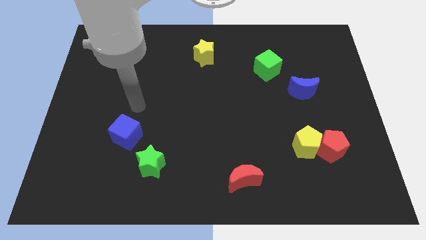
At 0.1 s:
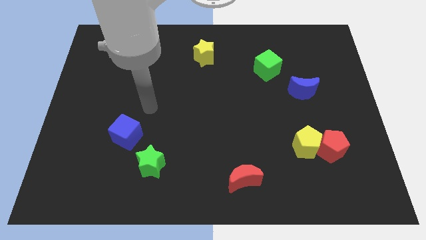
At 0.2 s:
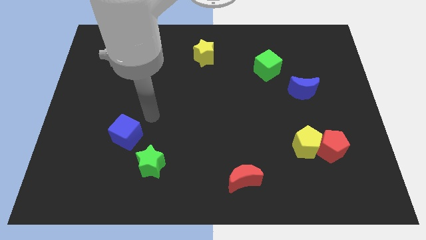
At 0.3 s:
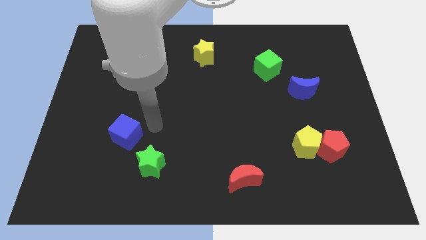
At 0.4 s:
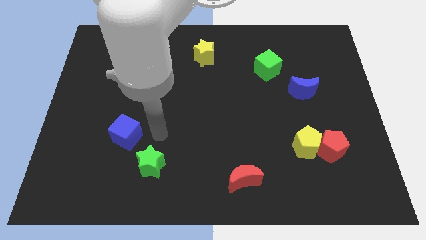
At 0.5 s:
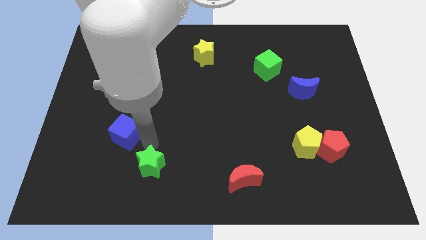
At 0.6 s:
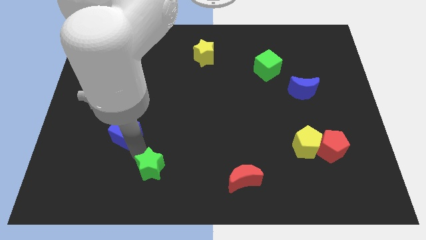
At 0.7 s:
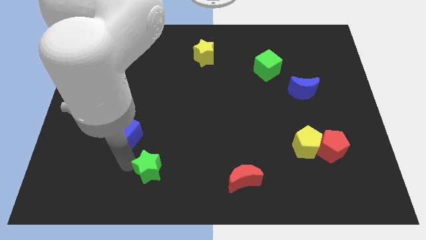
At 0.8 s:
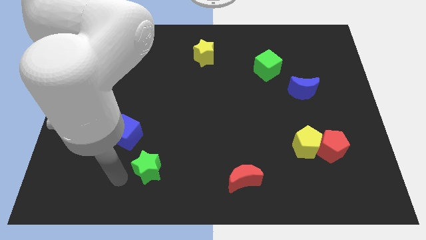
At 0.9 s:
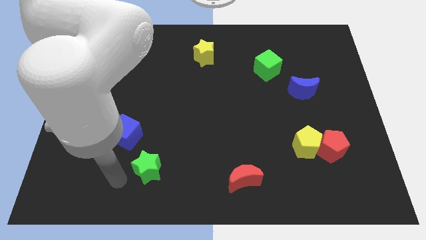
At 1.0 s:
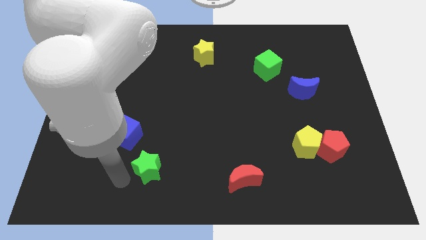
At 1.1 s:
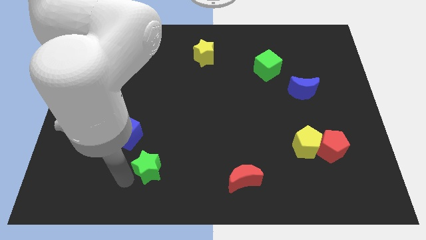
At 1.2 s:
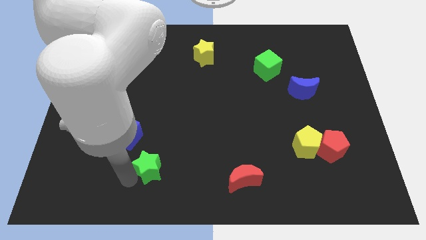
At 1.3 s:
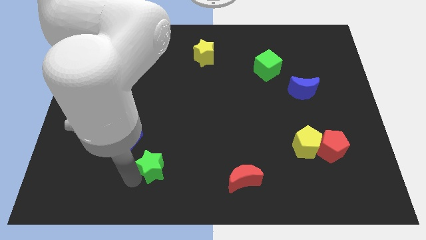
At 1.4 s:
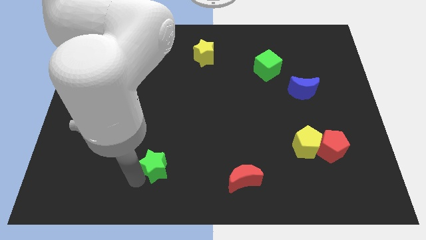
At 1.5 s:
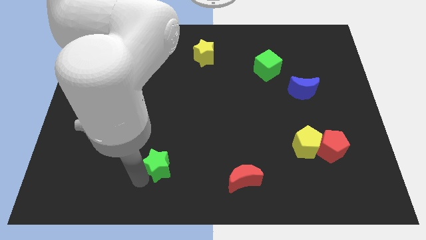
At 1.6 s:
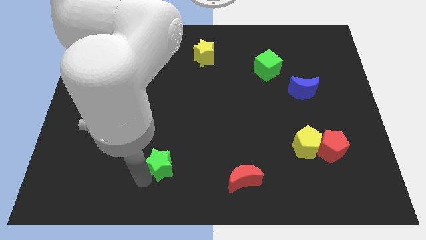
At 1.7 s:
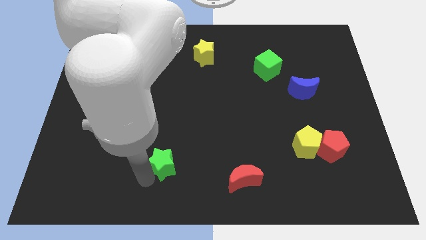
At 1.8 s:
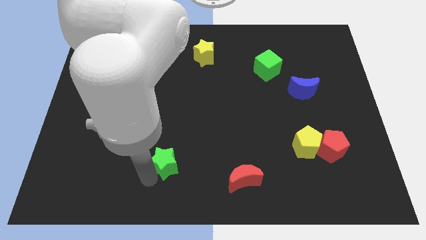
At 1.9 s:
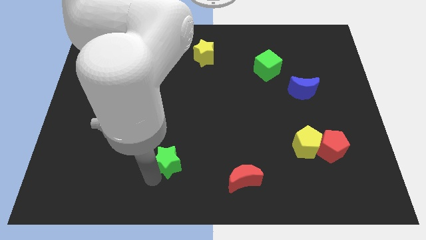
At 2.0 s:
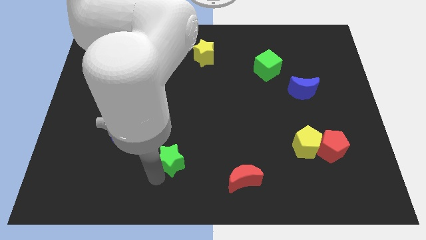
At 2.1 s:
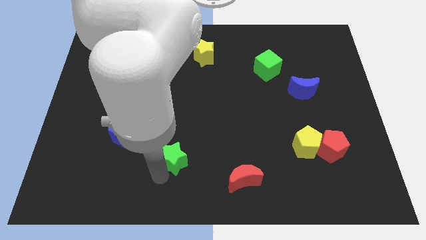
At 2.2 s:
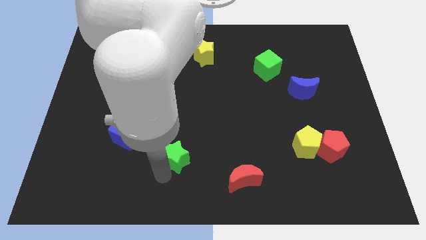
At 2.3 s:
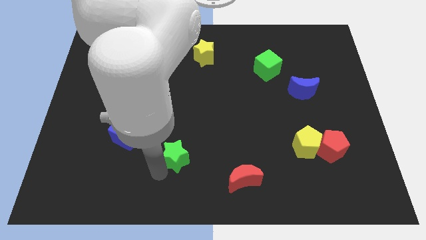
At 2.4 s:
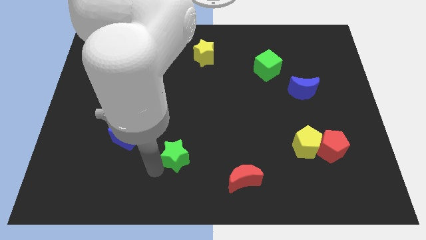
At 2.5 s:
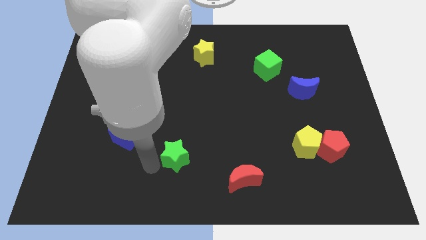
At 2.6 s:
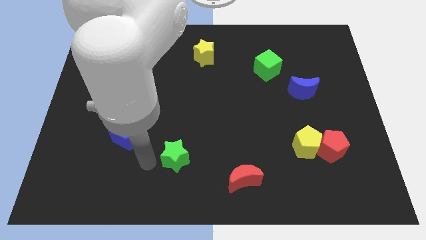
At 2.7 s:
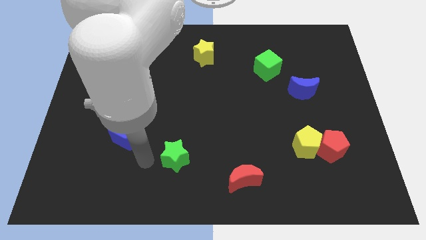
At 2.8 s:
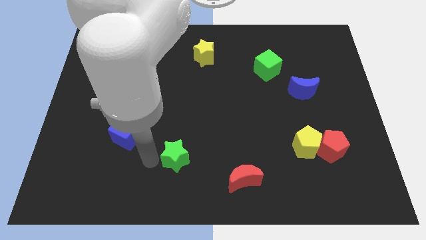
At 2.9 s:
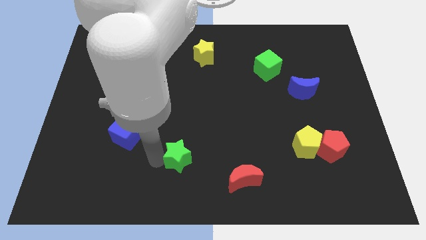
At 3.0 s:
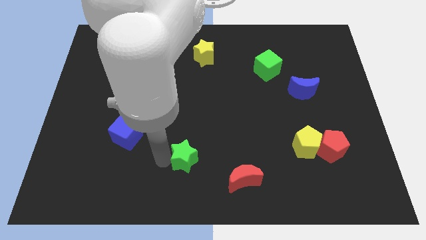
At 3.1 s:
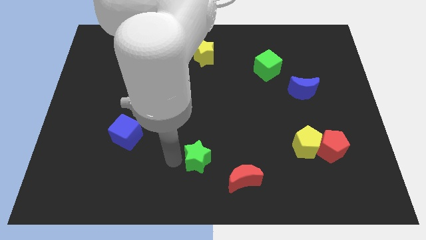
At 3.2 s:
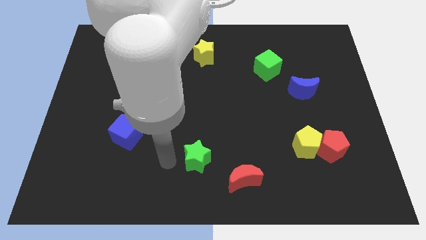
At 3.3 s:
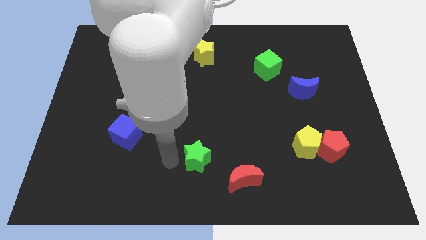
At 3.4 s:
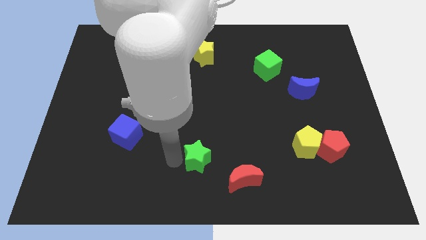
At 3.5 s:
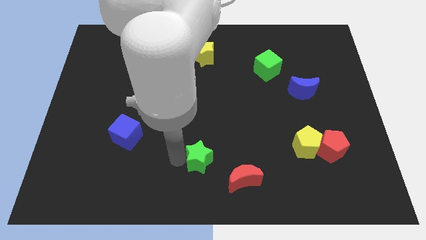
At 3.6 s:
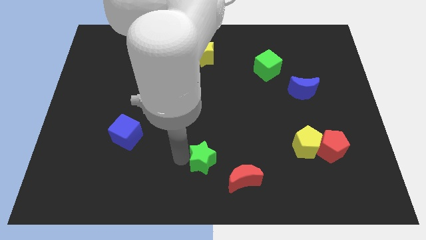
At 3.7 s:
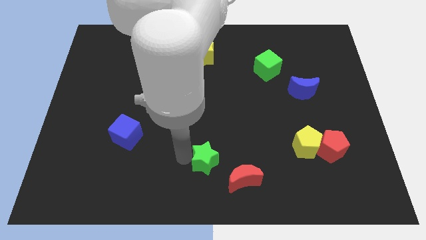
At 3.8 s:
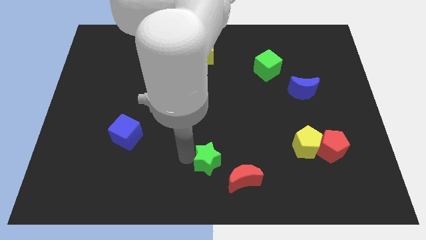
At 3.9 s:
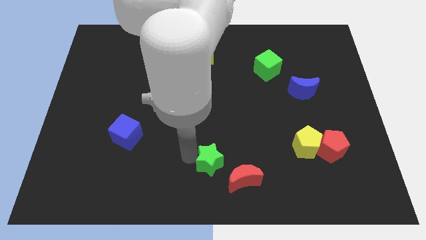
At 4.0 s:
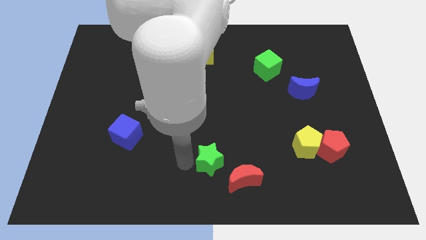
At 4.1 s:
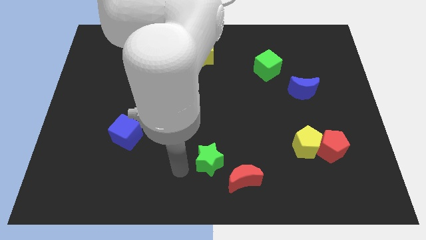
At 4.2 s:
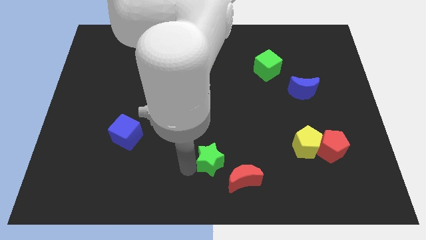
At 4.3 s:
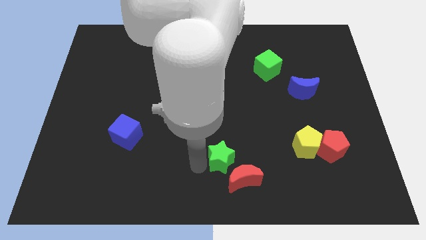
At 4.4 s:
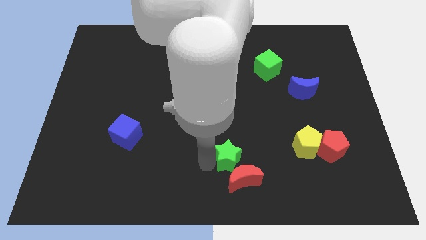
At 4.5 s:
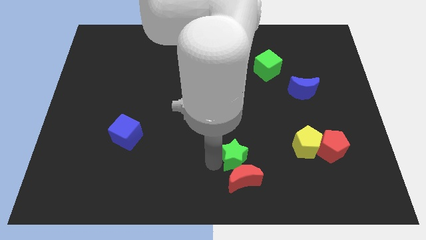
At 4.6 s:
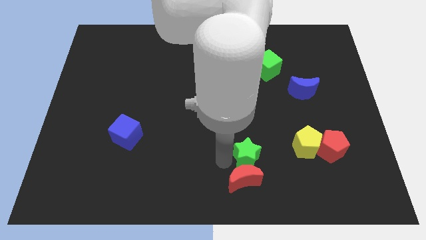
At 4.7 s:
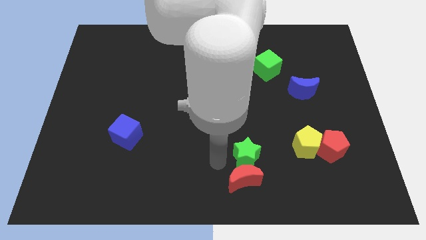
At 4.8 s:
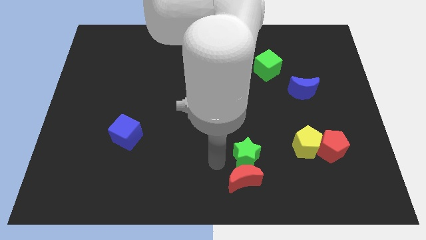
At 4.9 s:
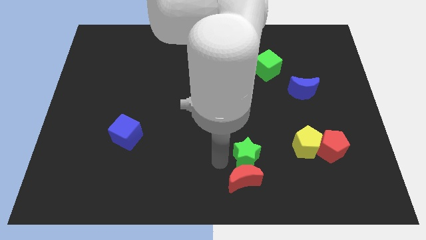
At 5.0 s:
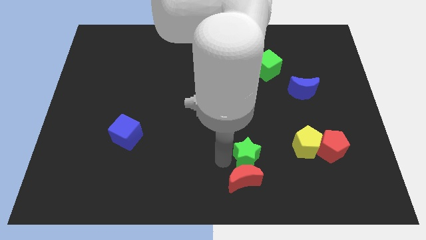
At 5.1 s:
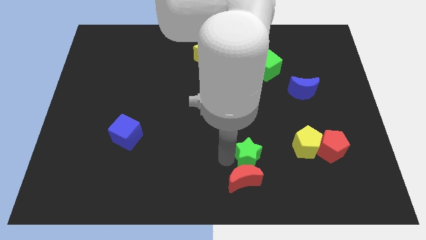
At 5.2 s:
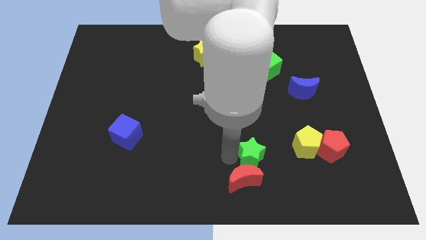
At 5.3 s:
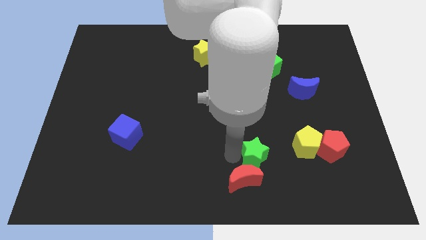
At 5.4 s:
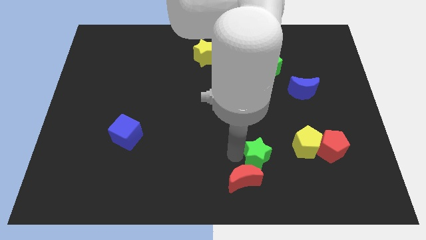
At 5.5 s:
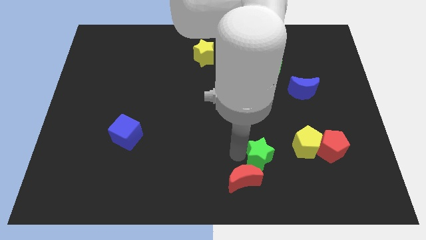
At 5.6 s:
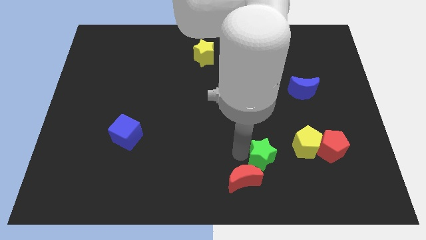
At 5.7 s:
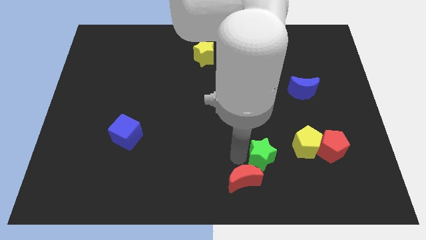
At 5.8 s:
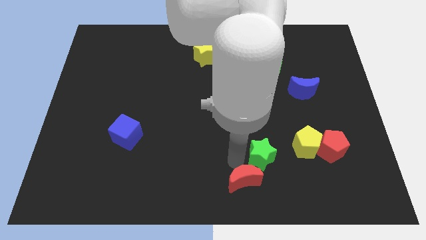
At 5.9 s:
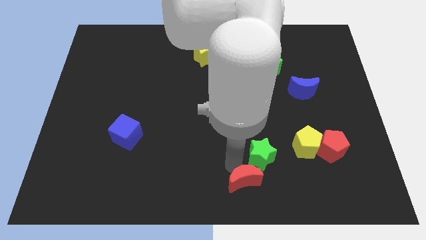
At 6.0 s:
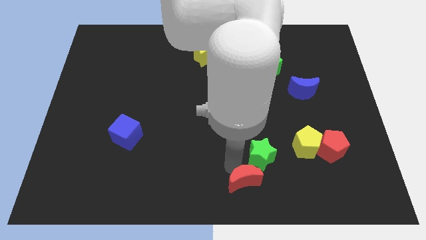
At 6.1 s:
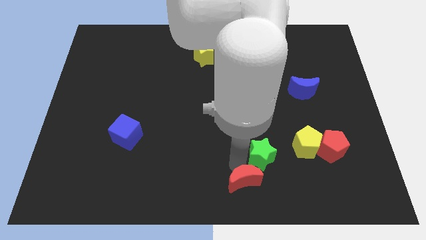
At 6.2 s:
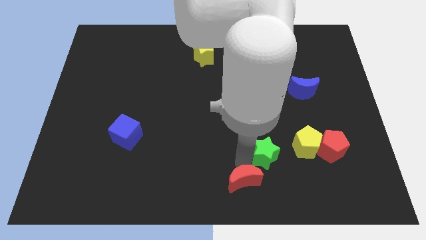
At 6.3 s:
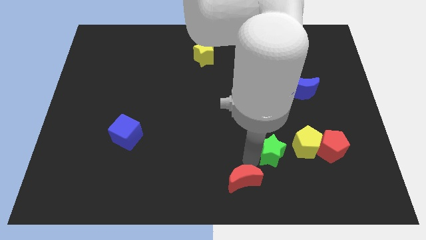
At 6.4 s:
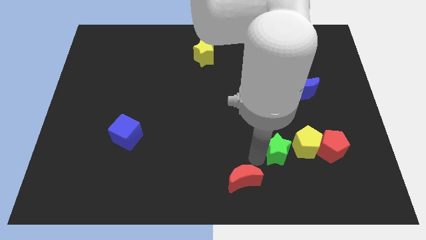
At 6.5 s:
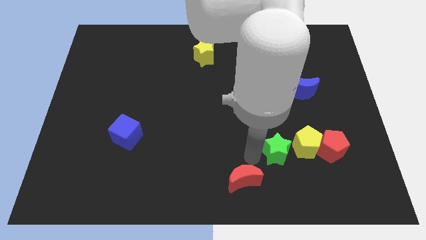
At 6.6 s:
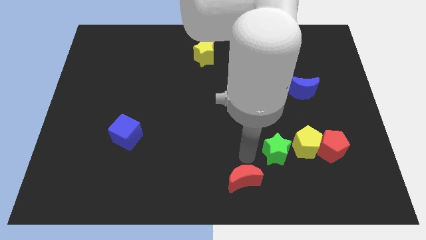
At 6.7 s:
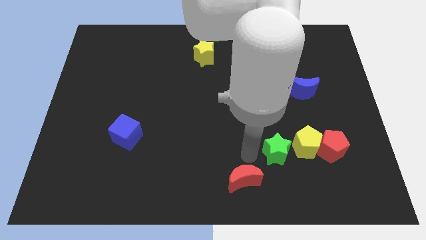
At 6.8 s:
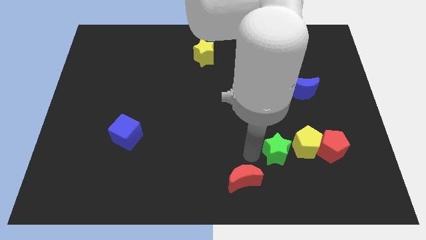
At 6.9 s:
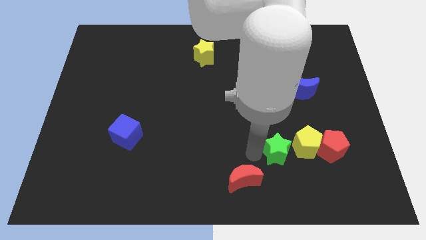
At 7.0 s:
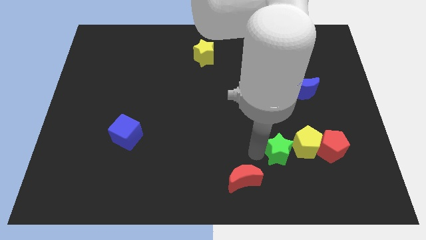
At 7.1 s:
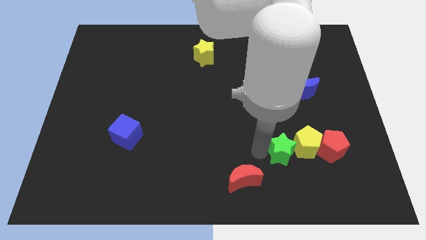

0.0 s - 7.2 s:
move the green star next to the yellow pentagon
